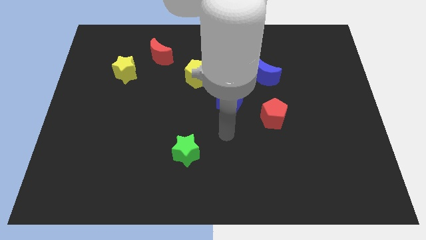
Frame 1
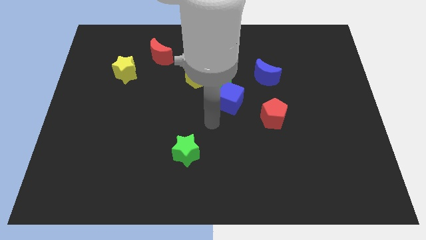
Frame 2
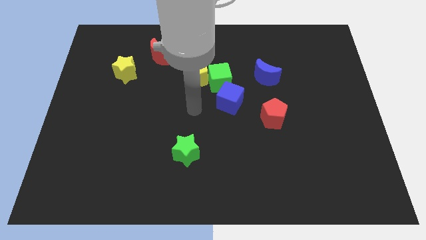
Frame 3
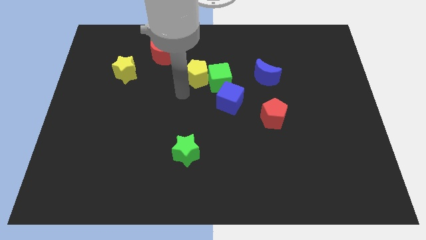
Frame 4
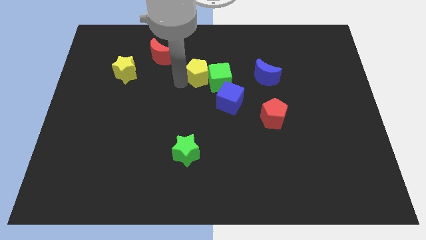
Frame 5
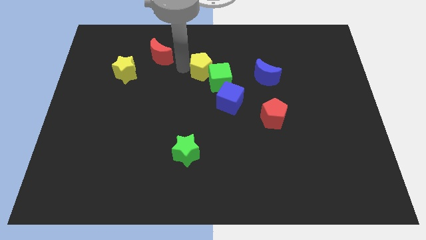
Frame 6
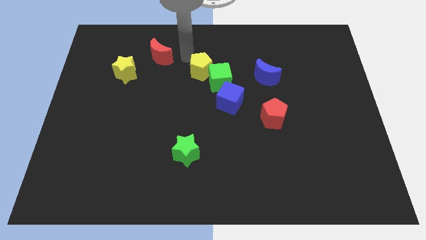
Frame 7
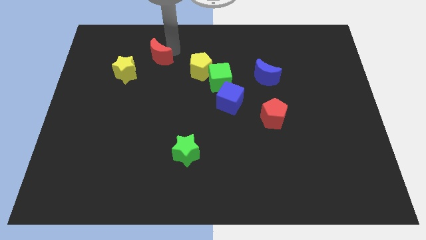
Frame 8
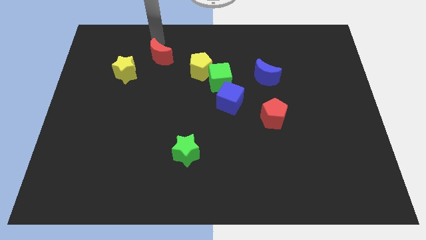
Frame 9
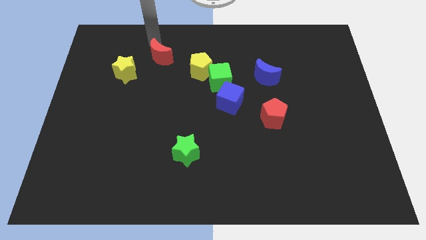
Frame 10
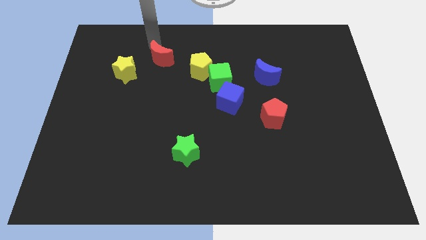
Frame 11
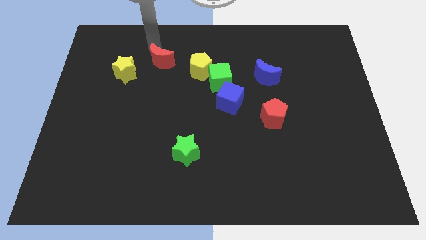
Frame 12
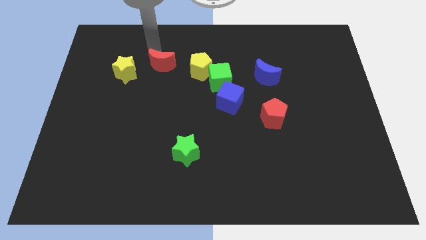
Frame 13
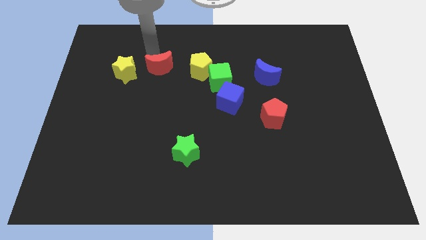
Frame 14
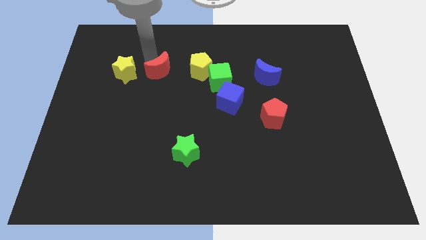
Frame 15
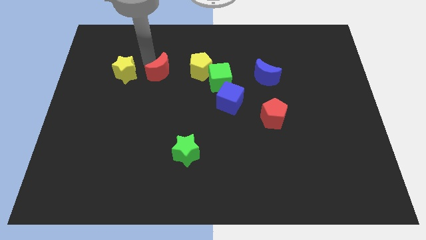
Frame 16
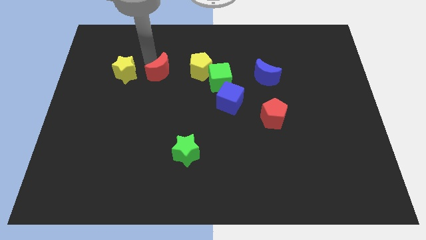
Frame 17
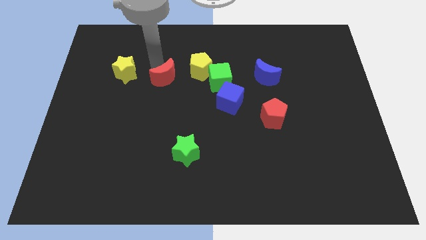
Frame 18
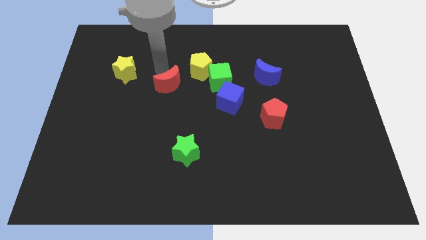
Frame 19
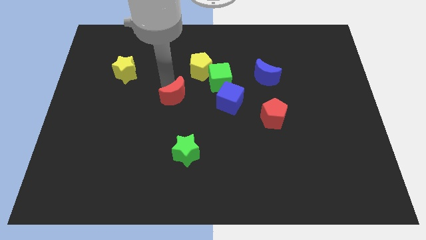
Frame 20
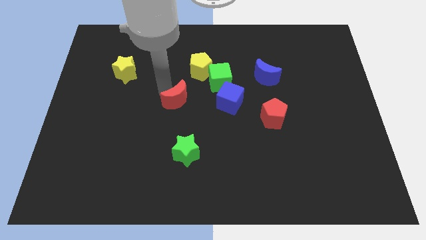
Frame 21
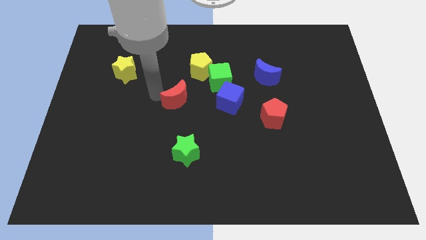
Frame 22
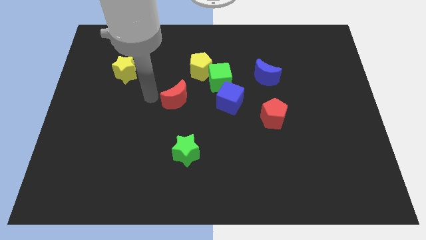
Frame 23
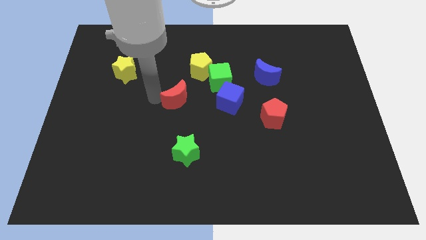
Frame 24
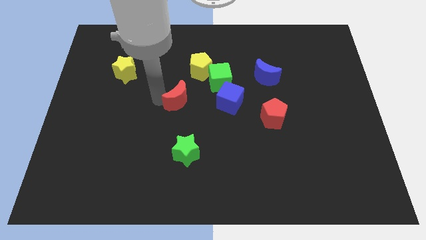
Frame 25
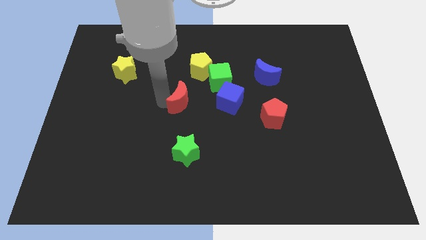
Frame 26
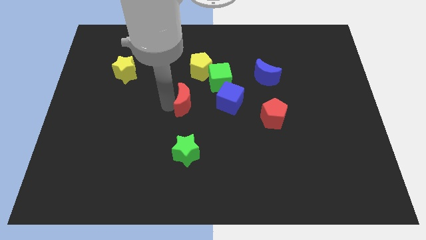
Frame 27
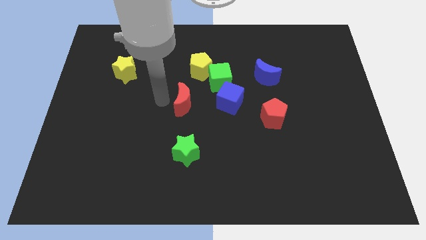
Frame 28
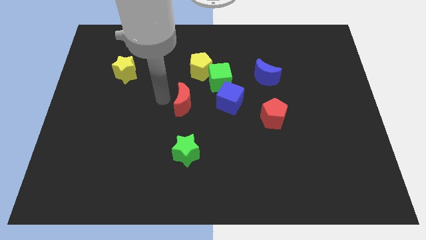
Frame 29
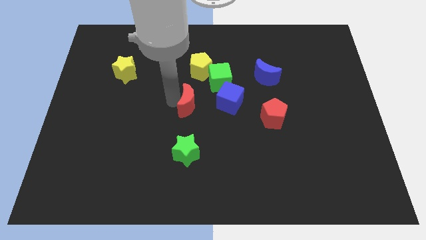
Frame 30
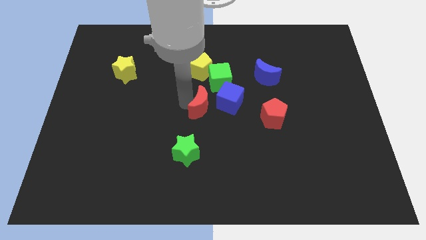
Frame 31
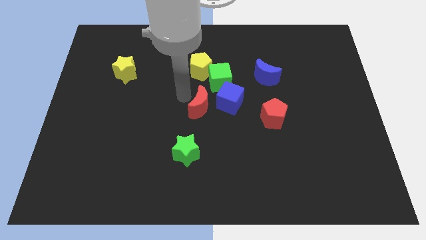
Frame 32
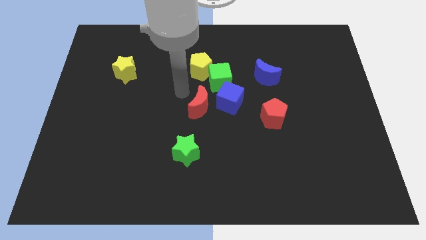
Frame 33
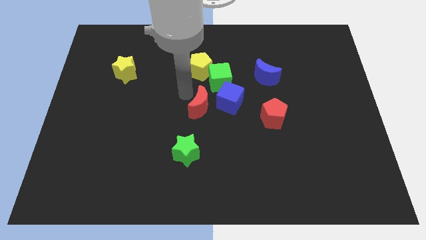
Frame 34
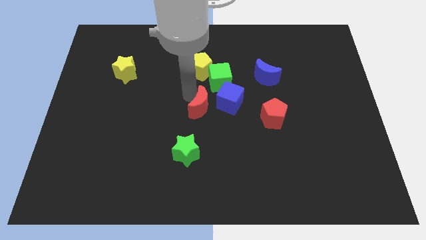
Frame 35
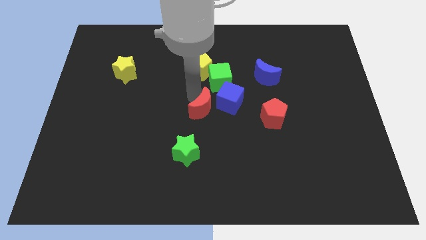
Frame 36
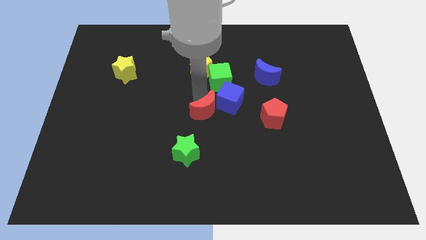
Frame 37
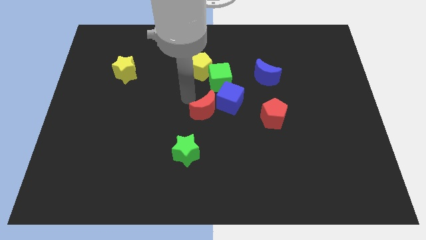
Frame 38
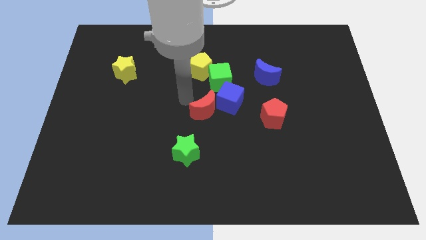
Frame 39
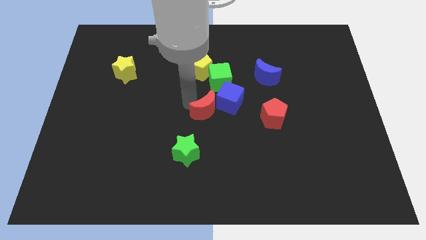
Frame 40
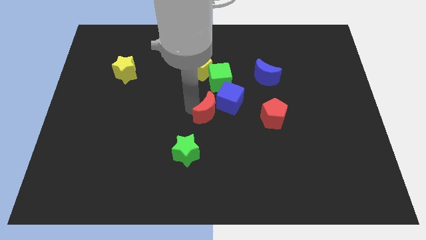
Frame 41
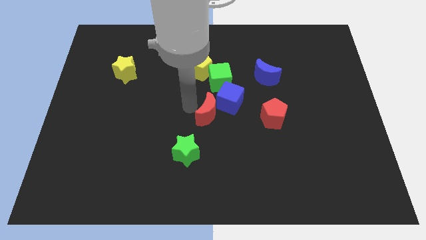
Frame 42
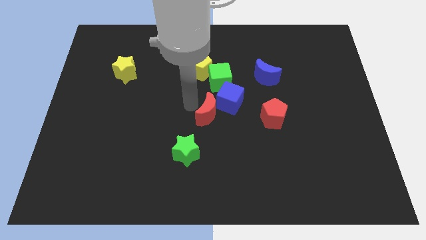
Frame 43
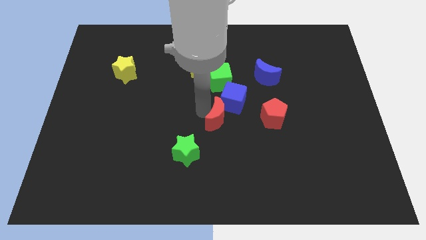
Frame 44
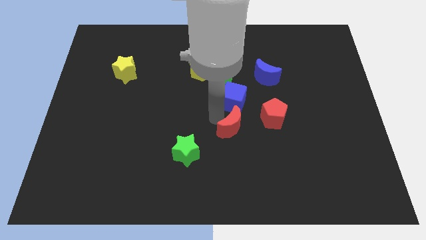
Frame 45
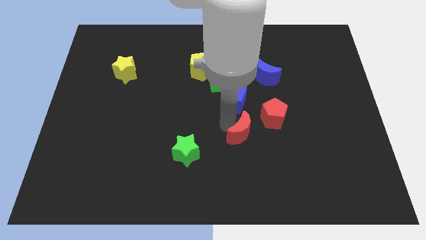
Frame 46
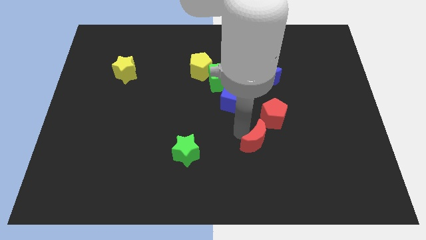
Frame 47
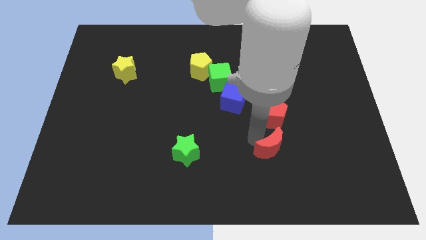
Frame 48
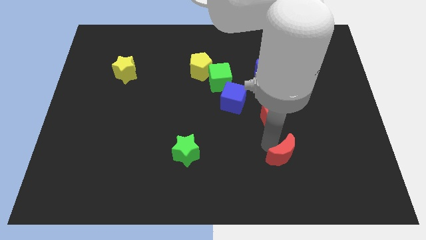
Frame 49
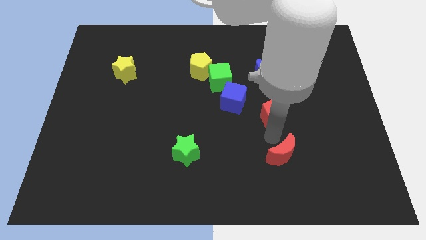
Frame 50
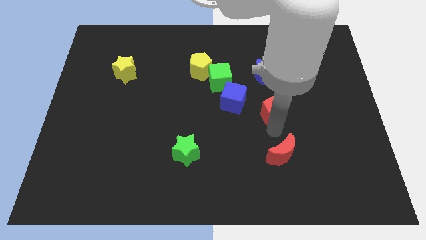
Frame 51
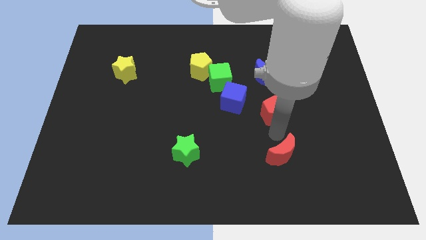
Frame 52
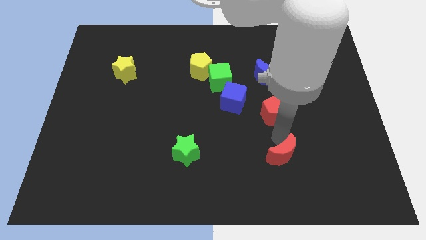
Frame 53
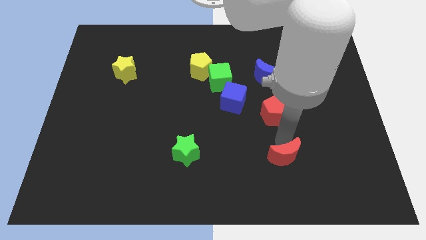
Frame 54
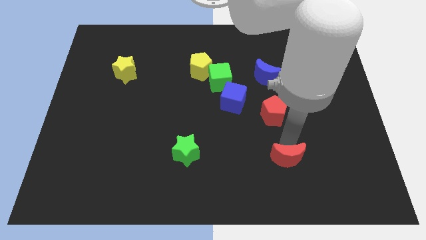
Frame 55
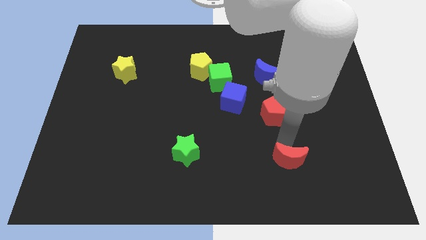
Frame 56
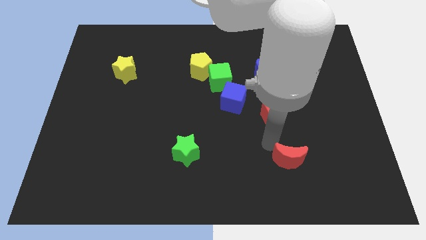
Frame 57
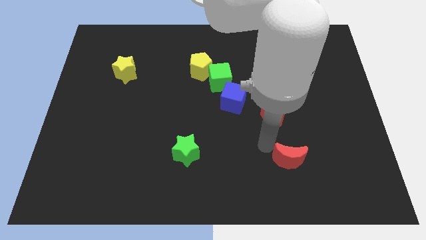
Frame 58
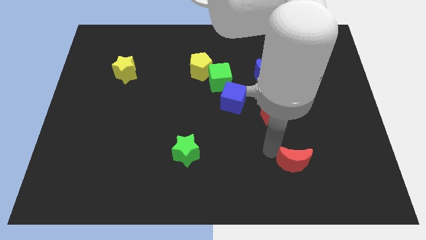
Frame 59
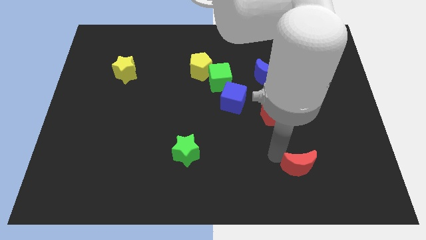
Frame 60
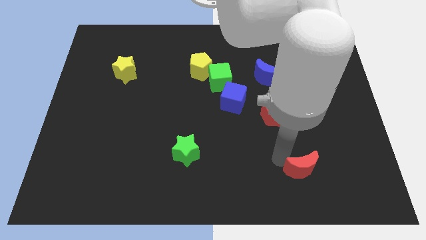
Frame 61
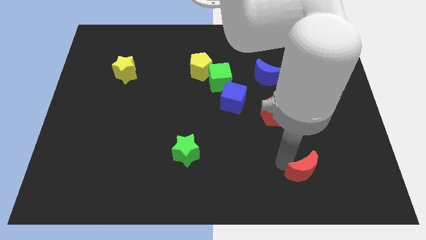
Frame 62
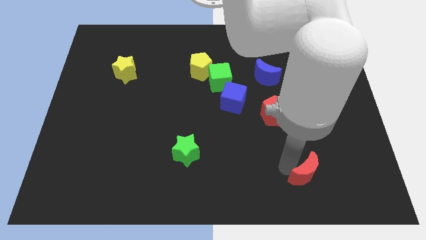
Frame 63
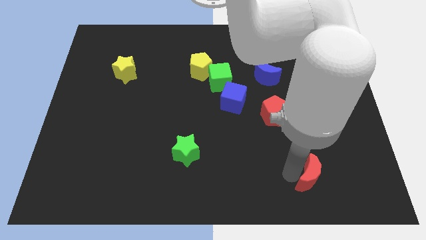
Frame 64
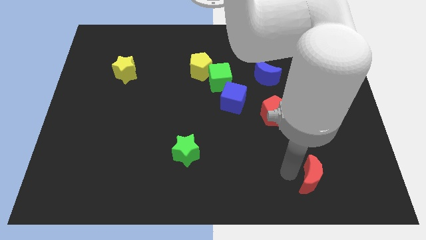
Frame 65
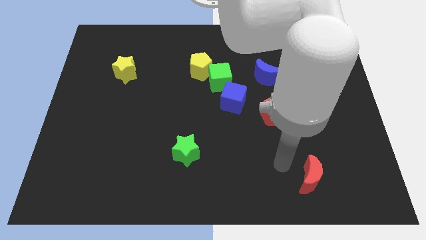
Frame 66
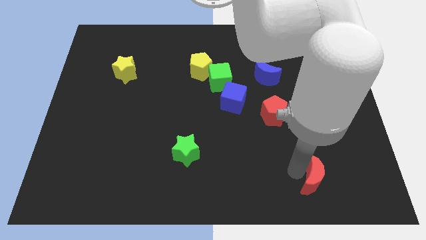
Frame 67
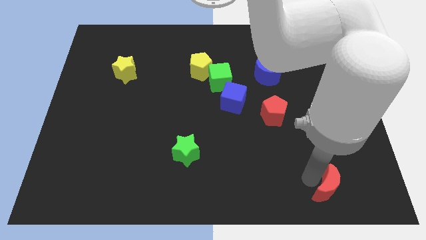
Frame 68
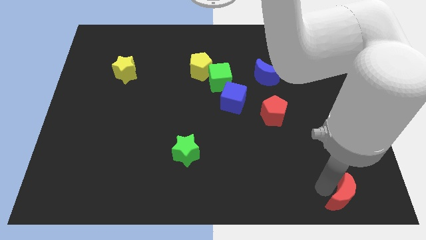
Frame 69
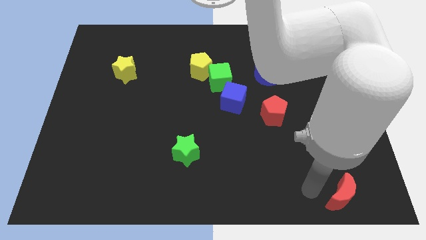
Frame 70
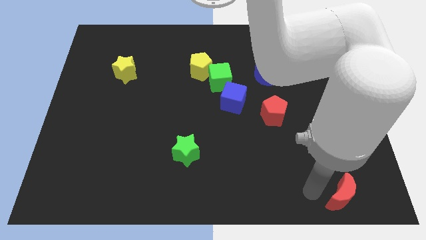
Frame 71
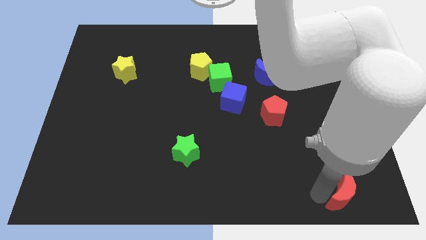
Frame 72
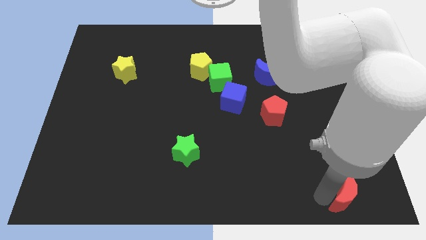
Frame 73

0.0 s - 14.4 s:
slide the red moon to the bottom right corner
